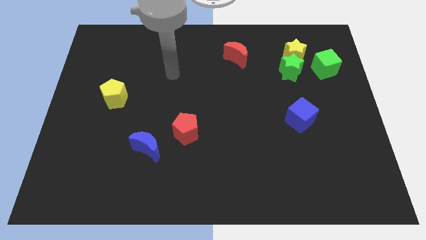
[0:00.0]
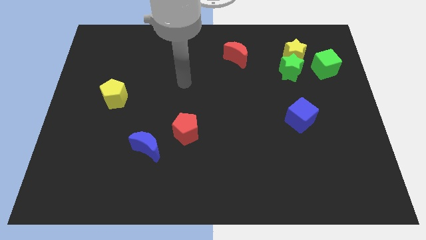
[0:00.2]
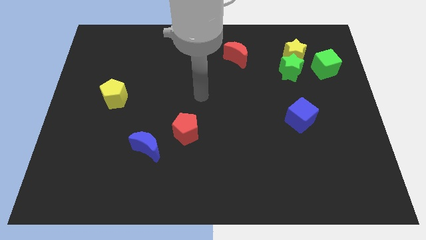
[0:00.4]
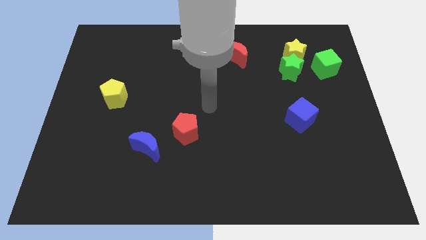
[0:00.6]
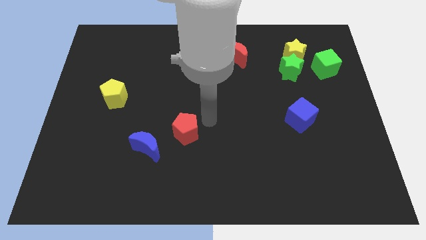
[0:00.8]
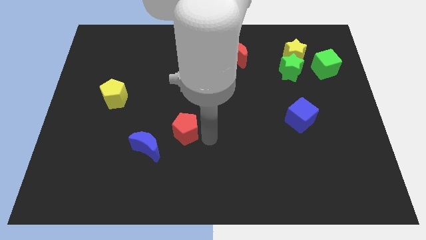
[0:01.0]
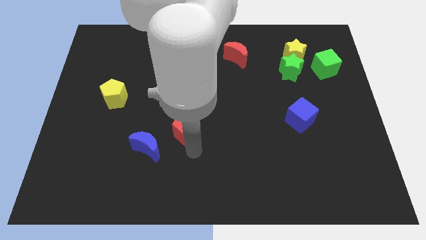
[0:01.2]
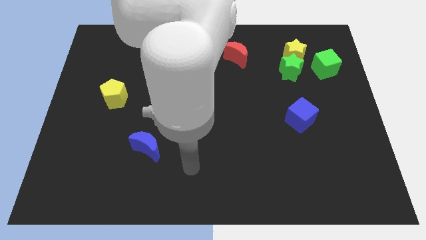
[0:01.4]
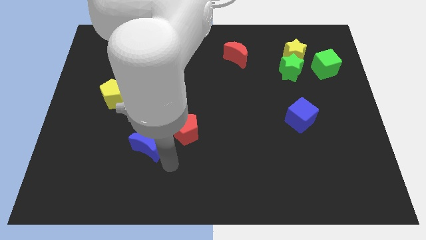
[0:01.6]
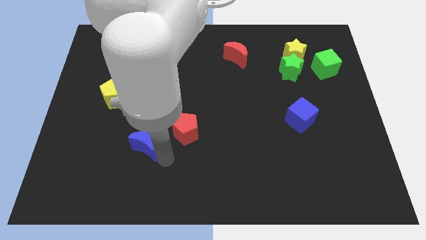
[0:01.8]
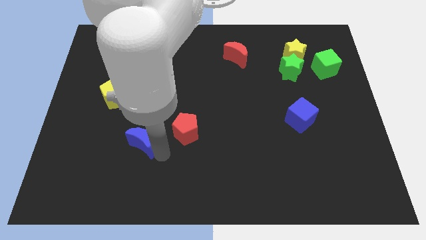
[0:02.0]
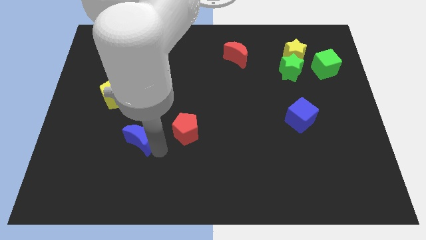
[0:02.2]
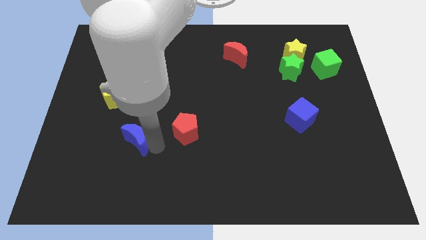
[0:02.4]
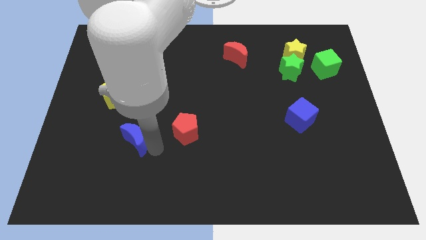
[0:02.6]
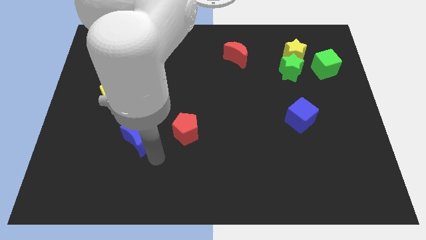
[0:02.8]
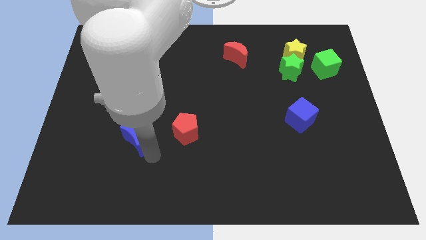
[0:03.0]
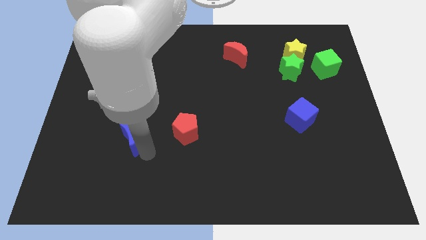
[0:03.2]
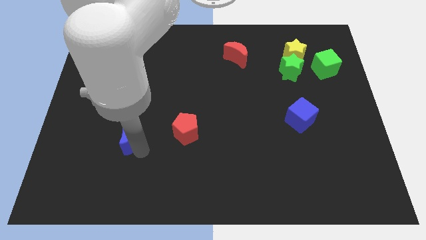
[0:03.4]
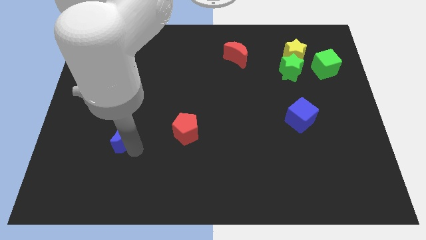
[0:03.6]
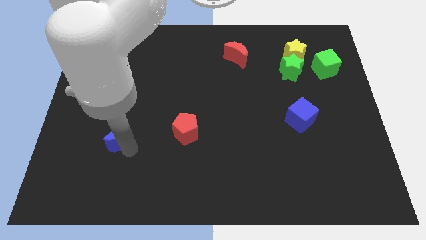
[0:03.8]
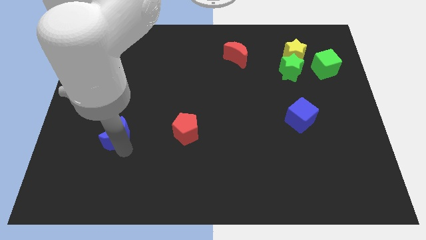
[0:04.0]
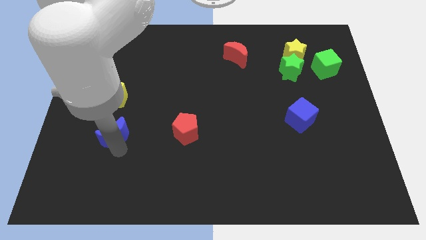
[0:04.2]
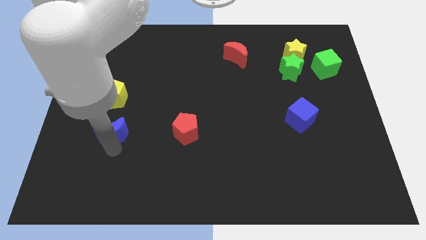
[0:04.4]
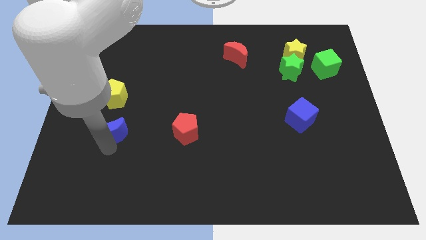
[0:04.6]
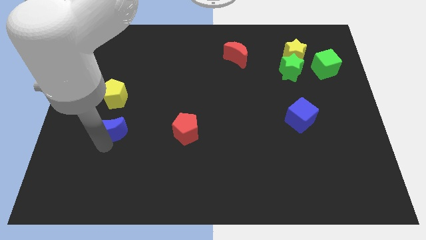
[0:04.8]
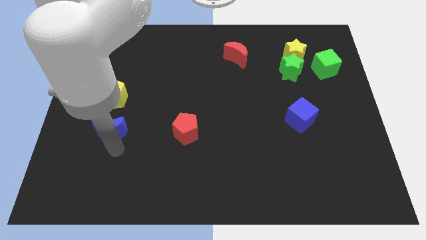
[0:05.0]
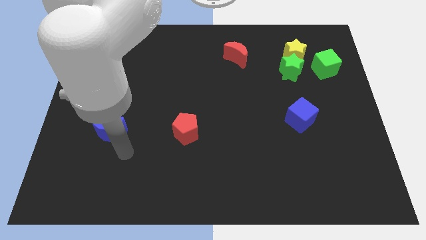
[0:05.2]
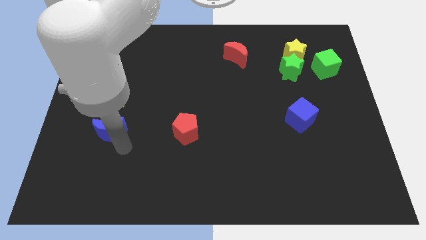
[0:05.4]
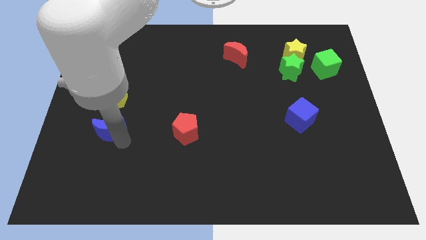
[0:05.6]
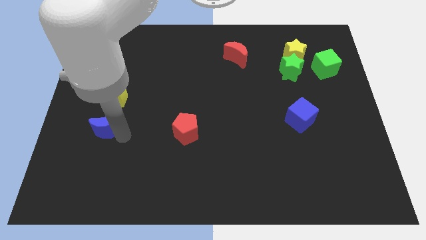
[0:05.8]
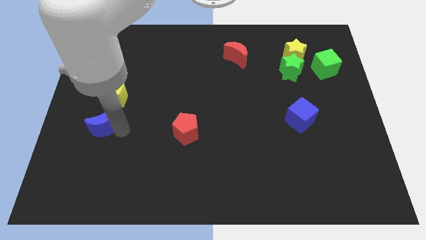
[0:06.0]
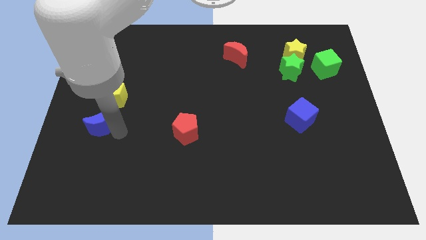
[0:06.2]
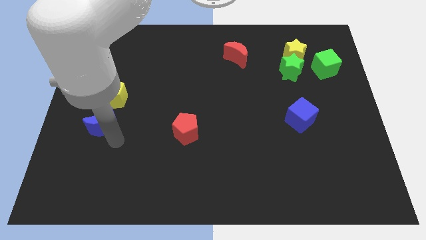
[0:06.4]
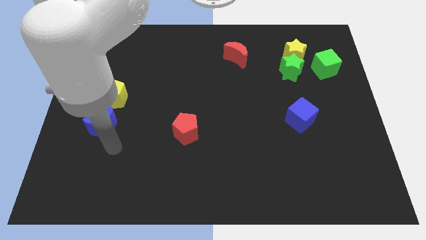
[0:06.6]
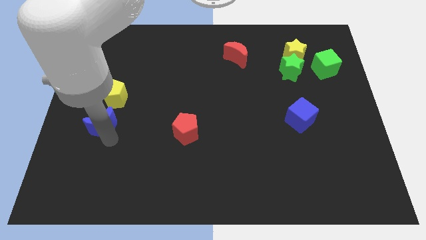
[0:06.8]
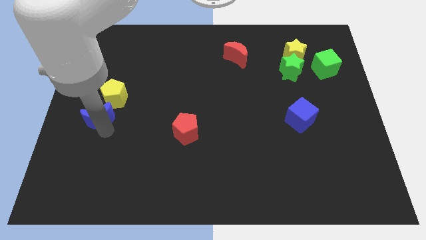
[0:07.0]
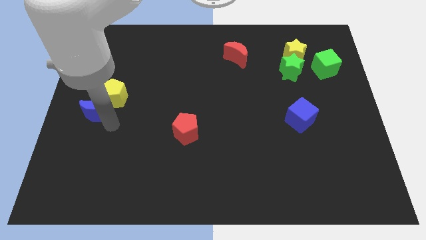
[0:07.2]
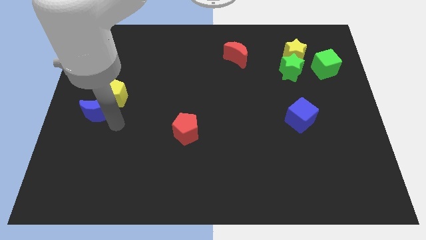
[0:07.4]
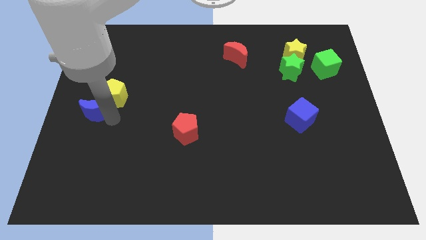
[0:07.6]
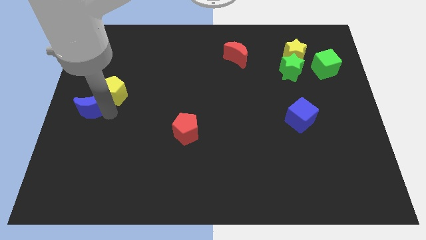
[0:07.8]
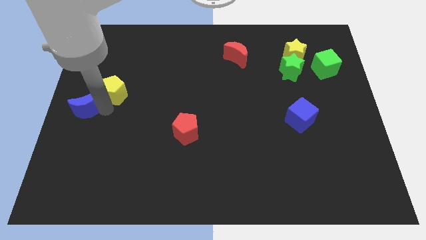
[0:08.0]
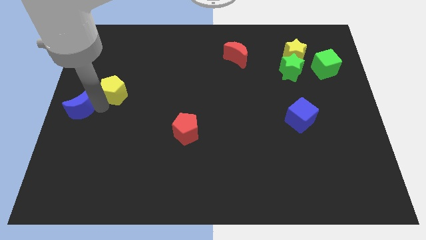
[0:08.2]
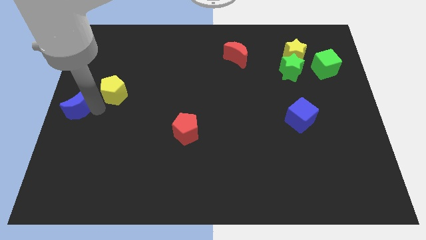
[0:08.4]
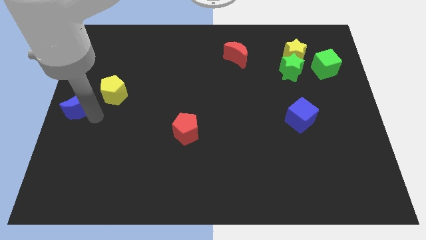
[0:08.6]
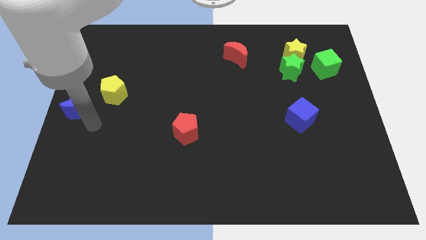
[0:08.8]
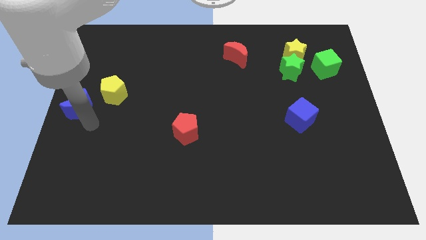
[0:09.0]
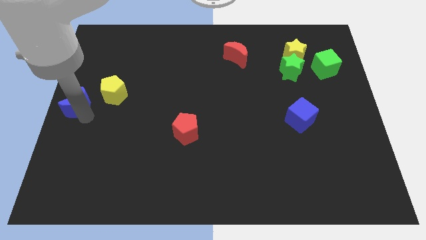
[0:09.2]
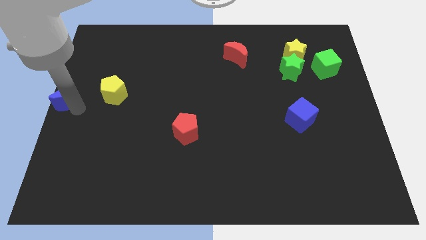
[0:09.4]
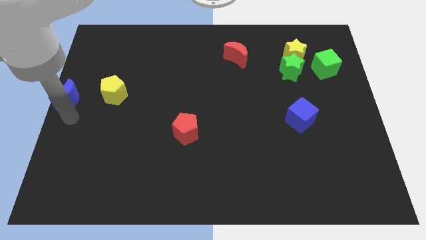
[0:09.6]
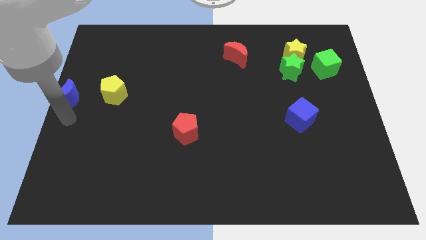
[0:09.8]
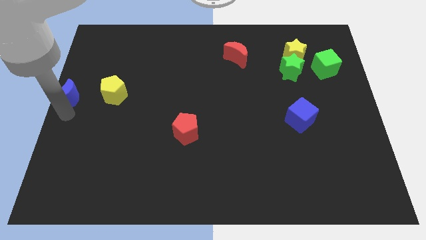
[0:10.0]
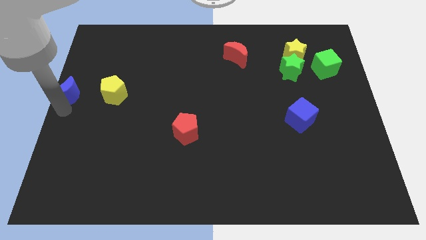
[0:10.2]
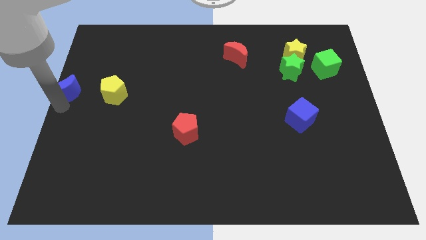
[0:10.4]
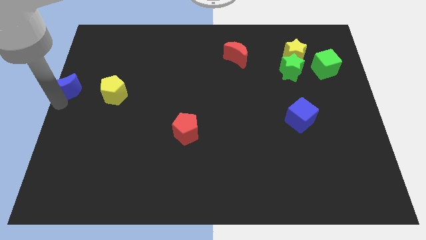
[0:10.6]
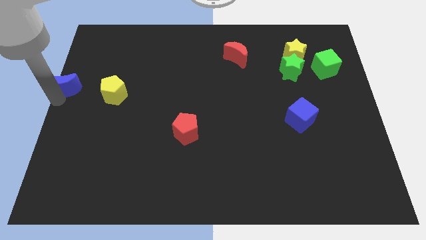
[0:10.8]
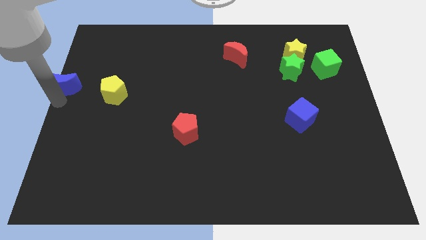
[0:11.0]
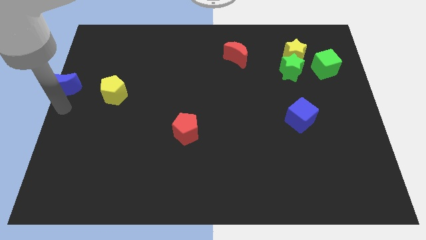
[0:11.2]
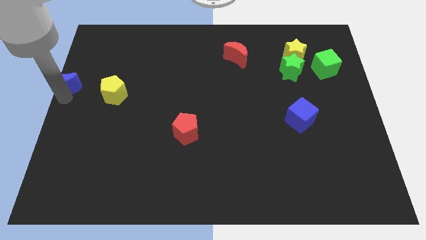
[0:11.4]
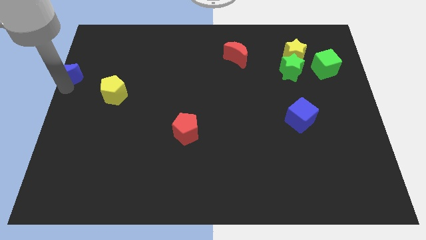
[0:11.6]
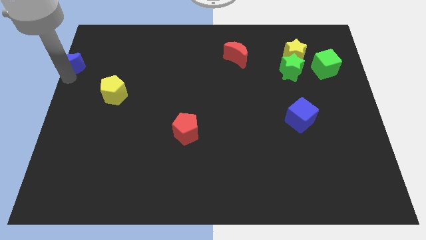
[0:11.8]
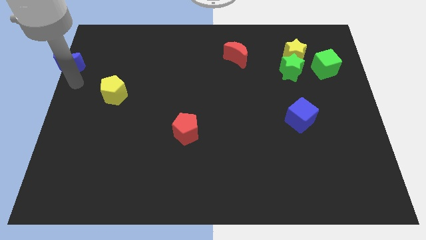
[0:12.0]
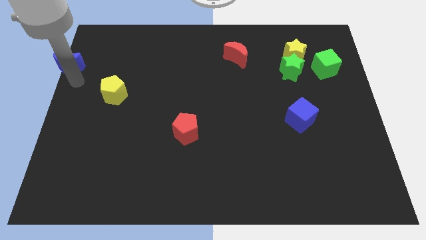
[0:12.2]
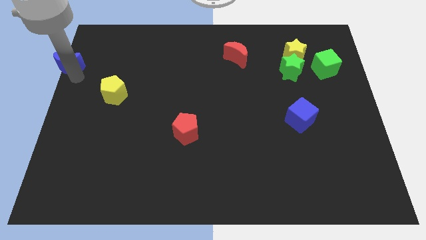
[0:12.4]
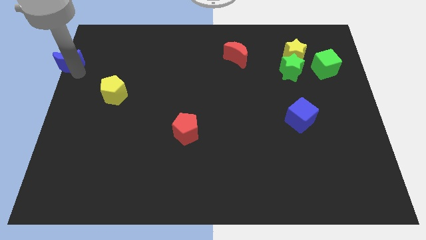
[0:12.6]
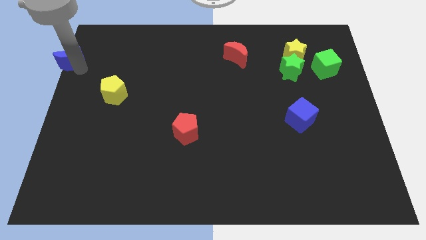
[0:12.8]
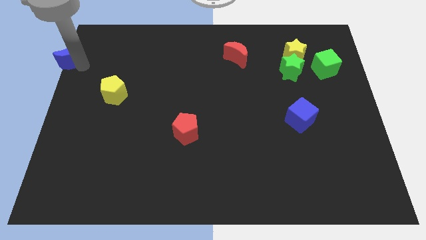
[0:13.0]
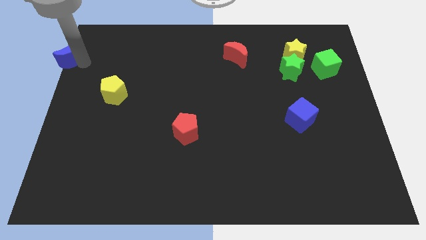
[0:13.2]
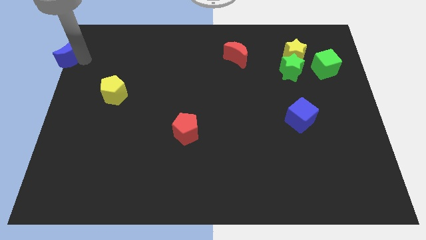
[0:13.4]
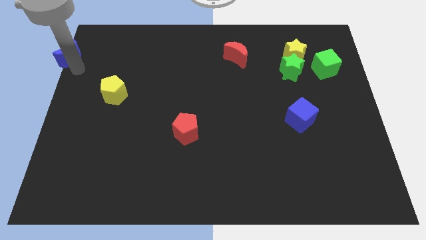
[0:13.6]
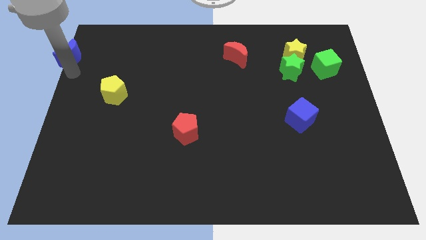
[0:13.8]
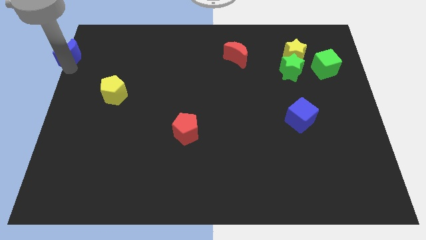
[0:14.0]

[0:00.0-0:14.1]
move the blue moon to the upper left corner
